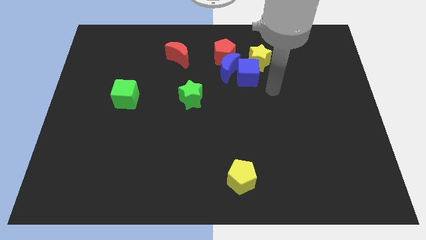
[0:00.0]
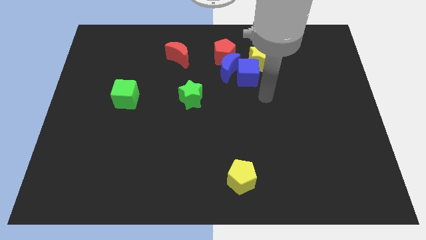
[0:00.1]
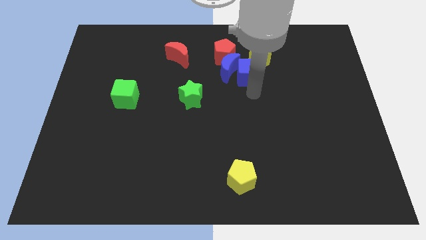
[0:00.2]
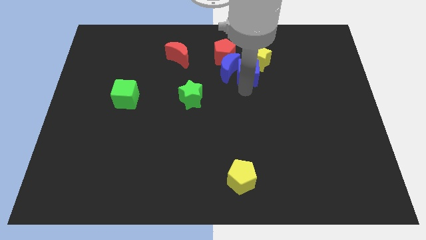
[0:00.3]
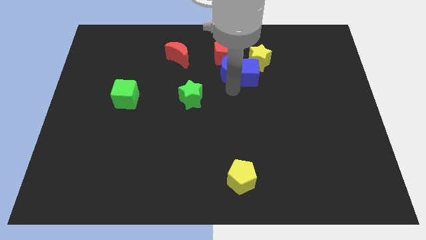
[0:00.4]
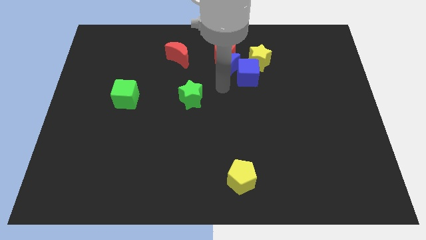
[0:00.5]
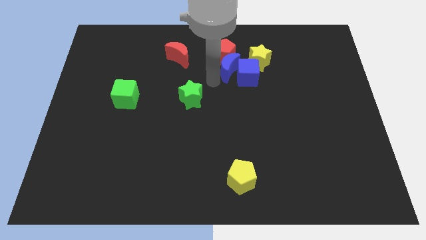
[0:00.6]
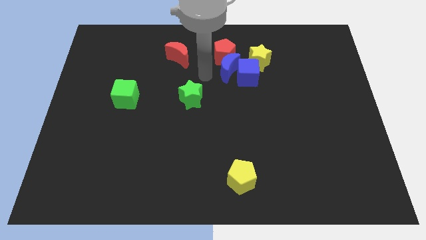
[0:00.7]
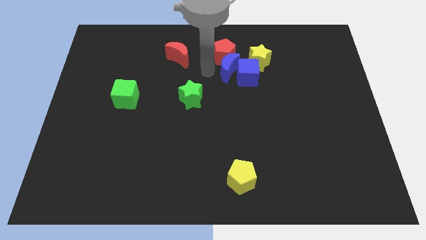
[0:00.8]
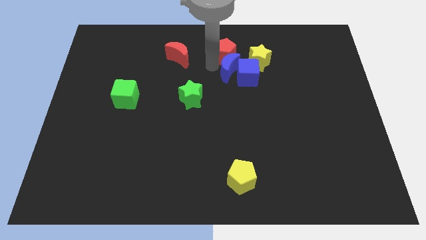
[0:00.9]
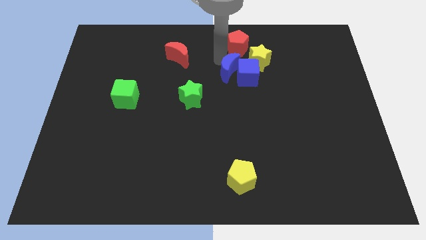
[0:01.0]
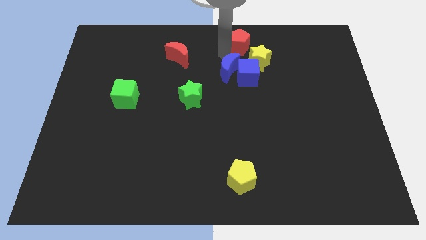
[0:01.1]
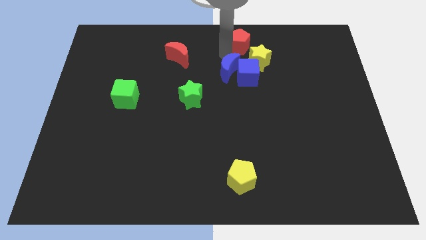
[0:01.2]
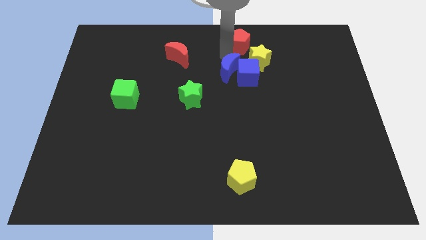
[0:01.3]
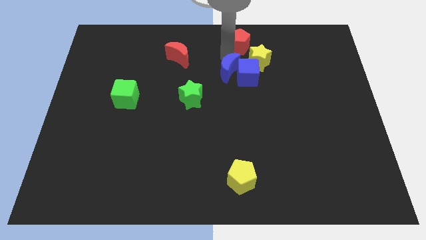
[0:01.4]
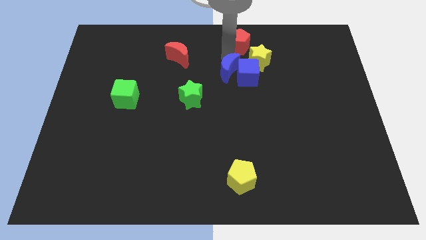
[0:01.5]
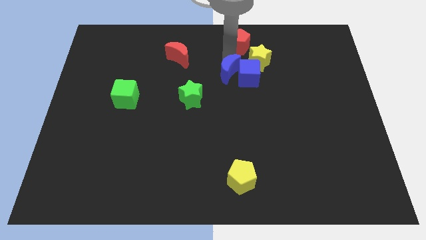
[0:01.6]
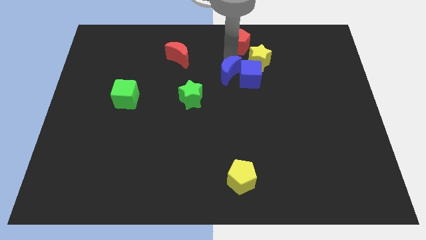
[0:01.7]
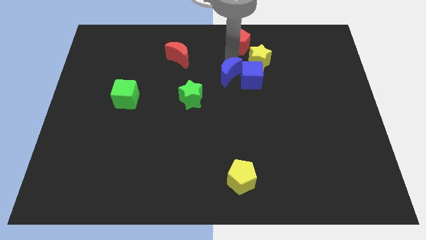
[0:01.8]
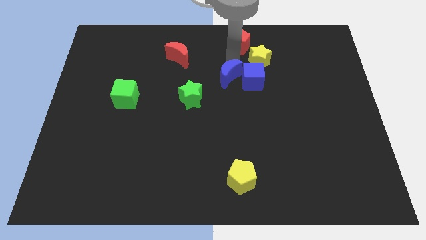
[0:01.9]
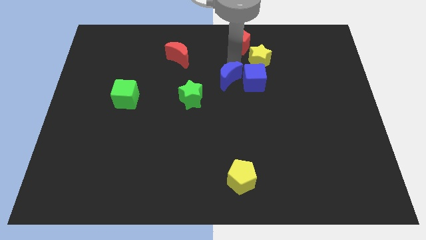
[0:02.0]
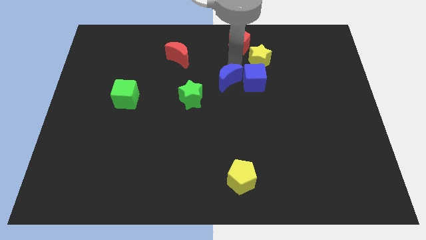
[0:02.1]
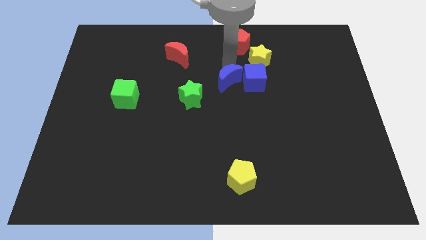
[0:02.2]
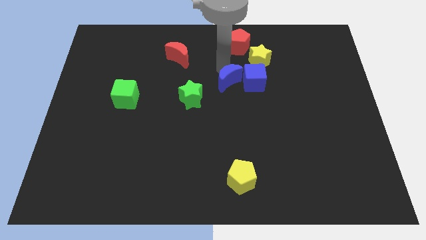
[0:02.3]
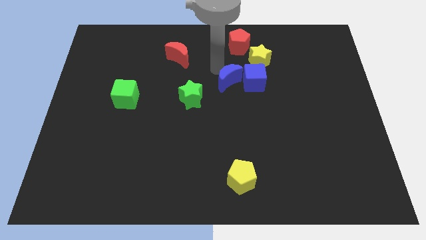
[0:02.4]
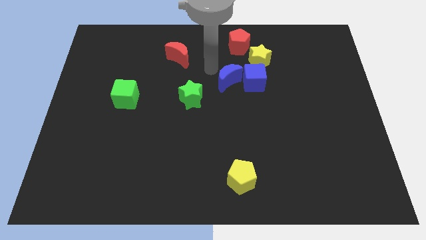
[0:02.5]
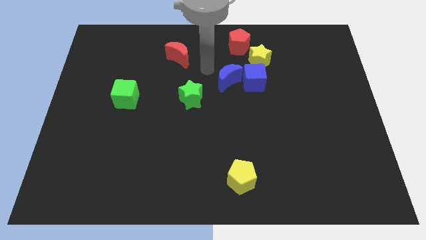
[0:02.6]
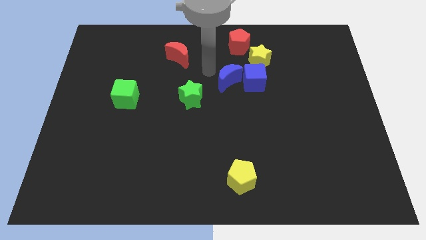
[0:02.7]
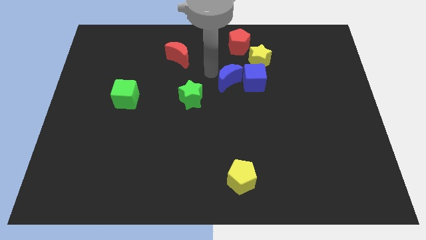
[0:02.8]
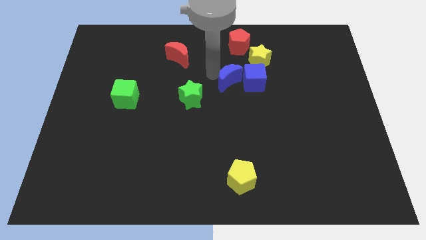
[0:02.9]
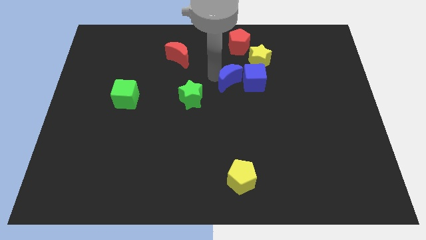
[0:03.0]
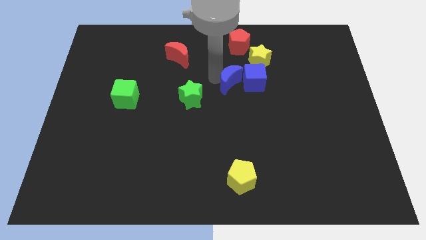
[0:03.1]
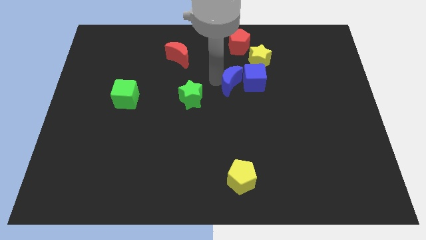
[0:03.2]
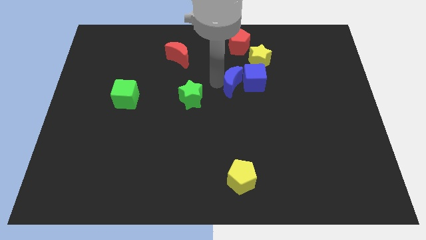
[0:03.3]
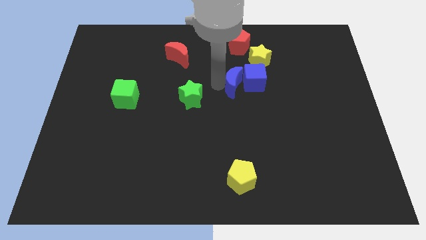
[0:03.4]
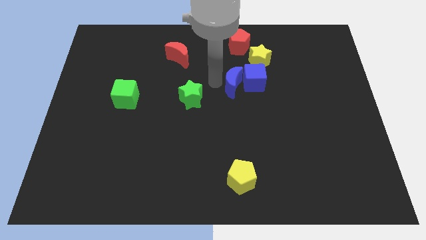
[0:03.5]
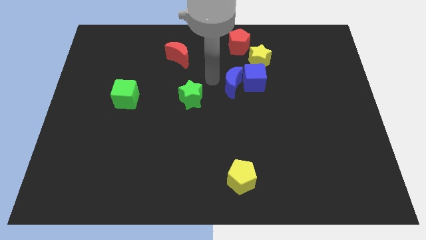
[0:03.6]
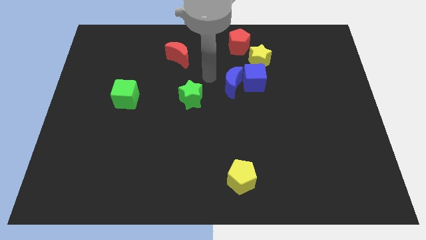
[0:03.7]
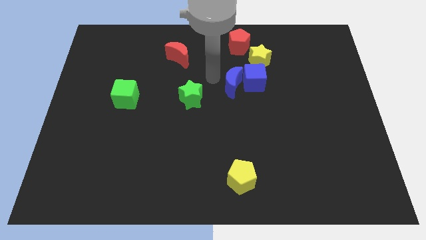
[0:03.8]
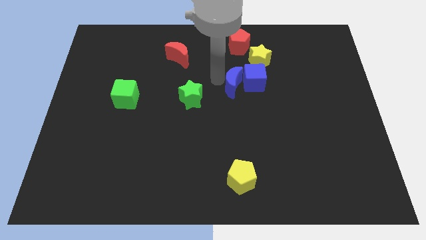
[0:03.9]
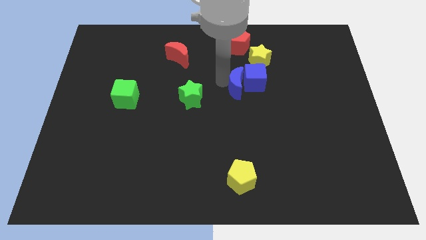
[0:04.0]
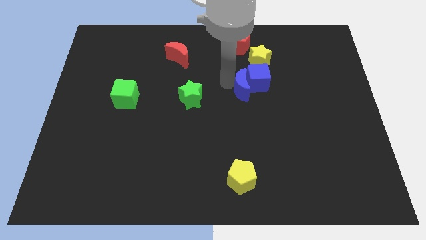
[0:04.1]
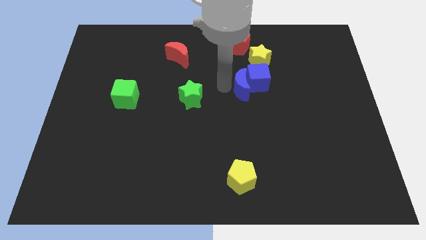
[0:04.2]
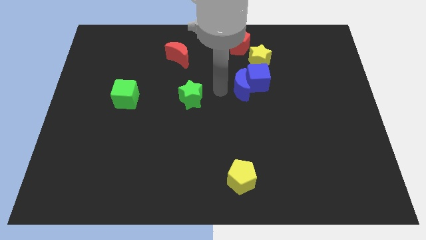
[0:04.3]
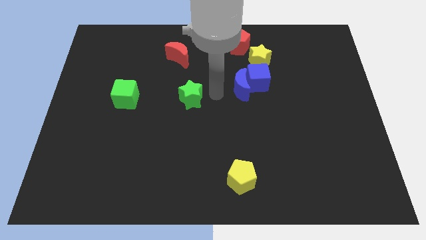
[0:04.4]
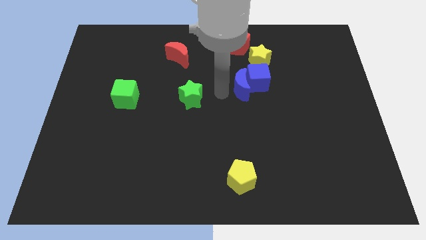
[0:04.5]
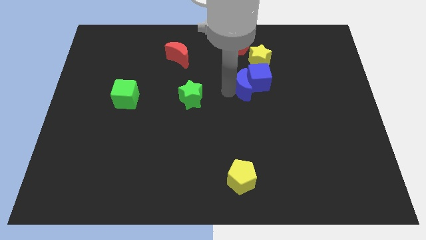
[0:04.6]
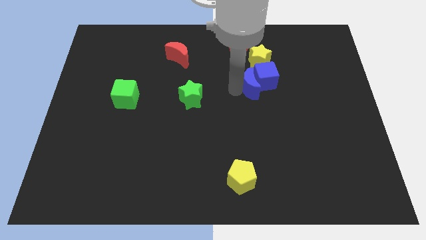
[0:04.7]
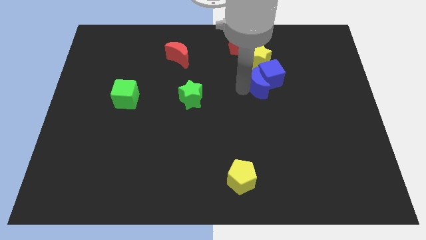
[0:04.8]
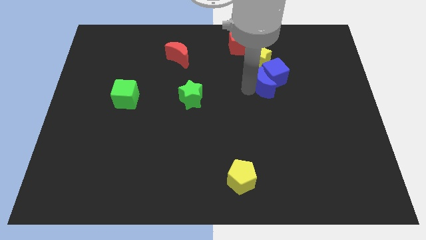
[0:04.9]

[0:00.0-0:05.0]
slightly push the blue moon right

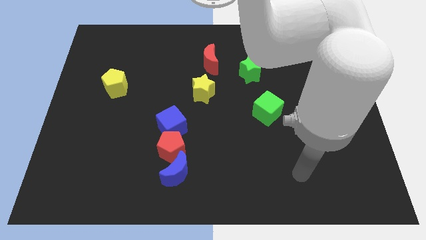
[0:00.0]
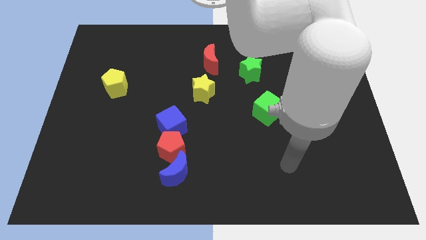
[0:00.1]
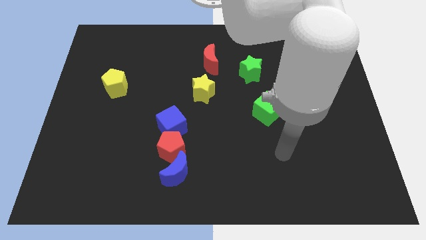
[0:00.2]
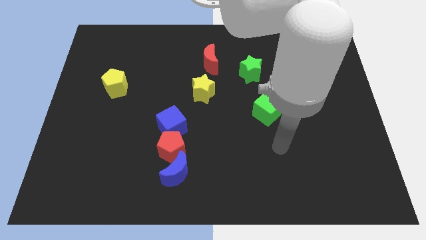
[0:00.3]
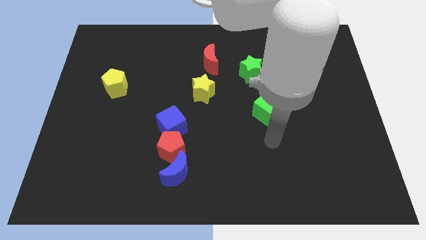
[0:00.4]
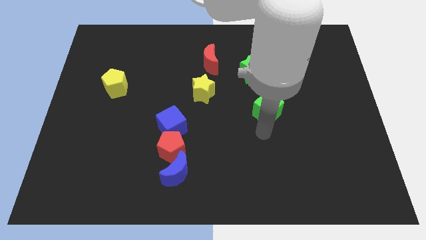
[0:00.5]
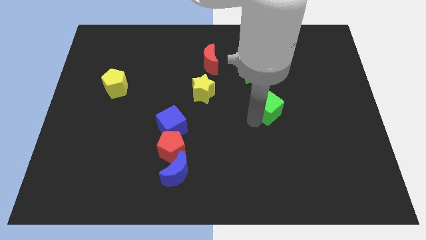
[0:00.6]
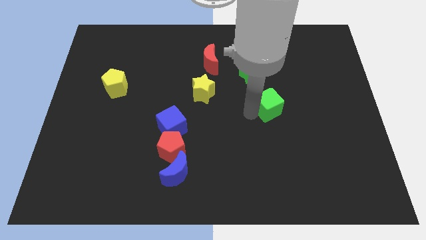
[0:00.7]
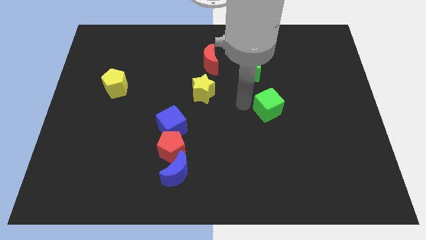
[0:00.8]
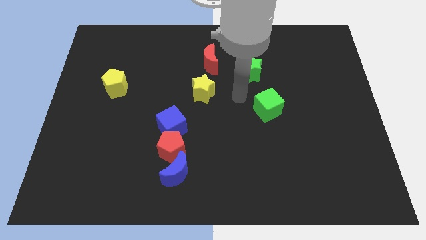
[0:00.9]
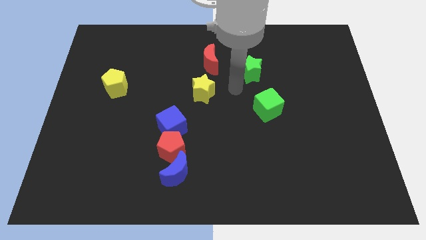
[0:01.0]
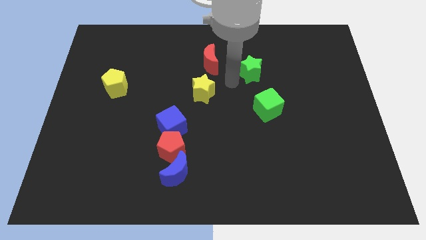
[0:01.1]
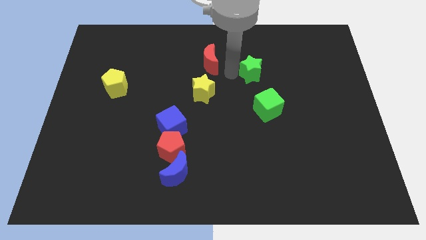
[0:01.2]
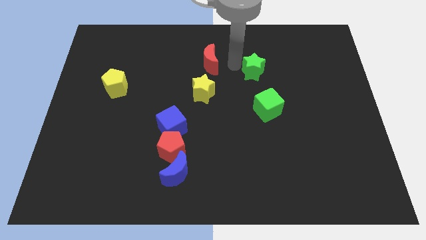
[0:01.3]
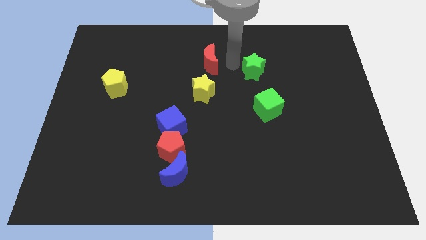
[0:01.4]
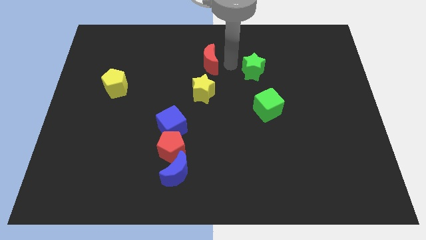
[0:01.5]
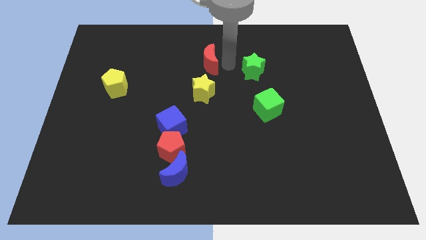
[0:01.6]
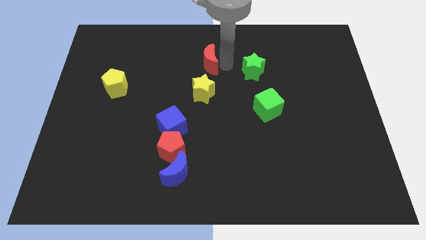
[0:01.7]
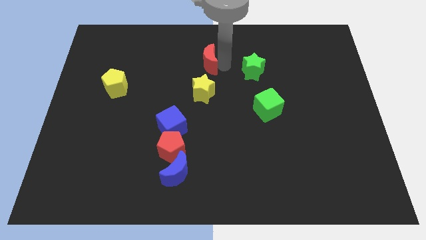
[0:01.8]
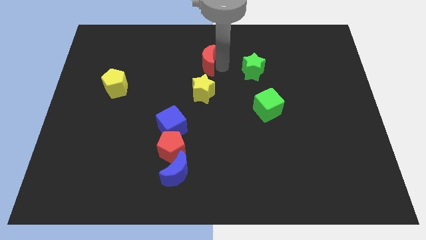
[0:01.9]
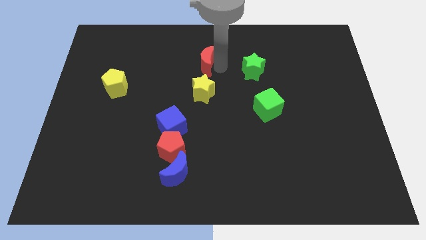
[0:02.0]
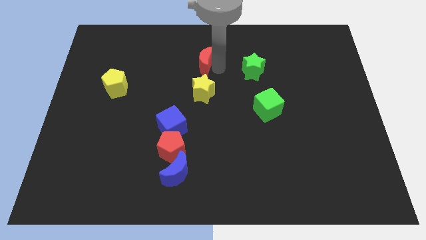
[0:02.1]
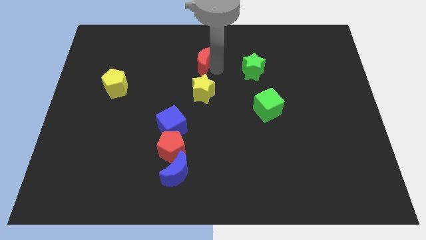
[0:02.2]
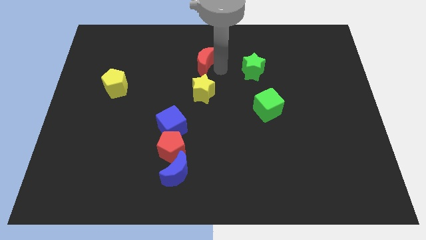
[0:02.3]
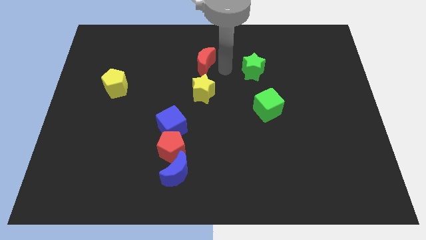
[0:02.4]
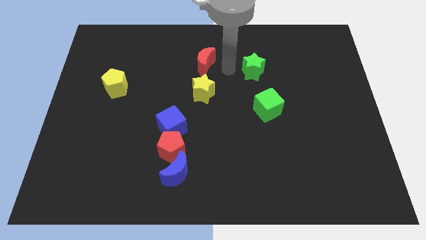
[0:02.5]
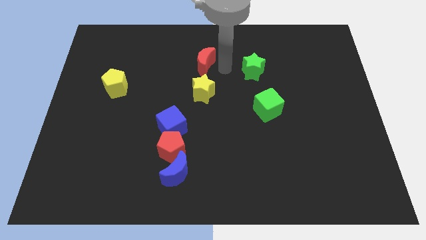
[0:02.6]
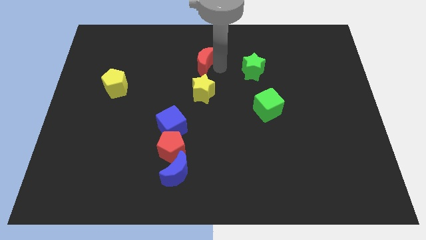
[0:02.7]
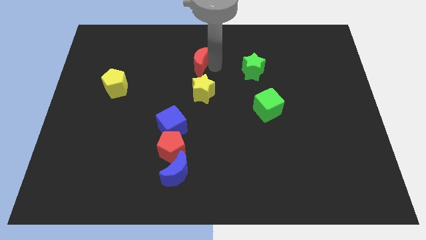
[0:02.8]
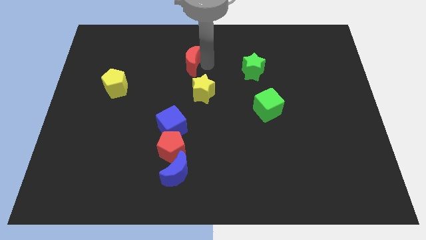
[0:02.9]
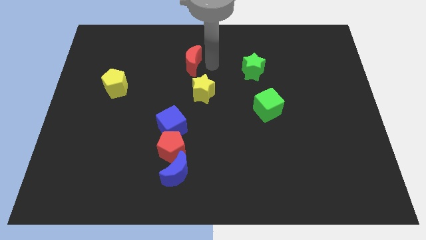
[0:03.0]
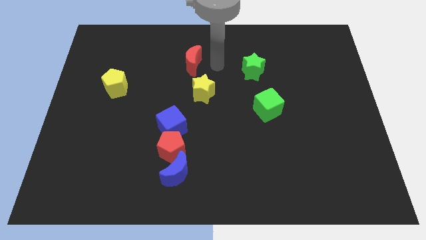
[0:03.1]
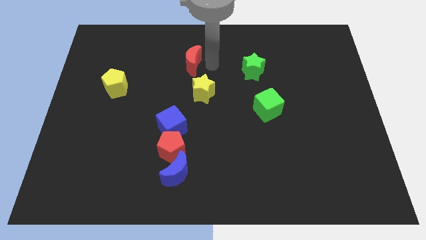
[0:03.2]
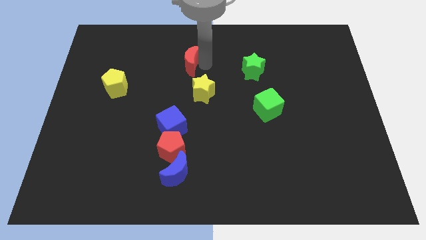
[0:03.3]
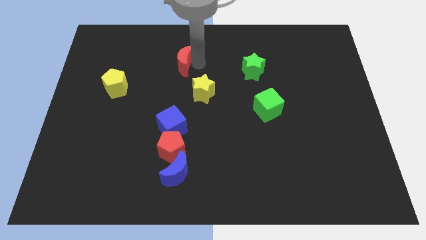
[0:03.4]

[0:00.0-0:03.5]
slide the red moon to the left a little
